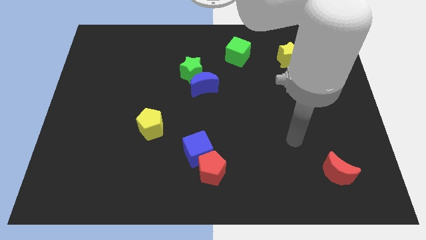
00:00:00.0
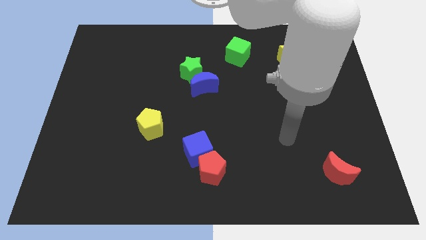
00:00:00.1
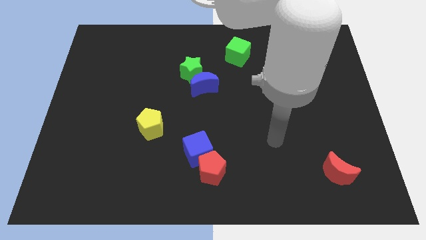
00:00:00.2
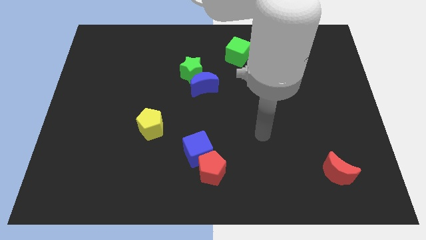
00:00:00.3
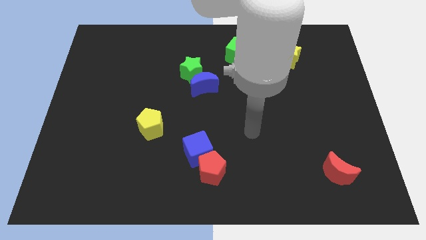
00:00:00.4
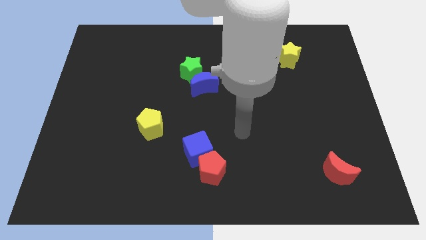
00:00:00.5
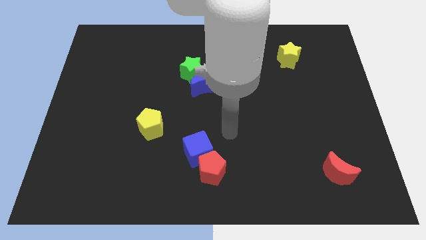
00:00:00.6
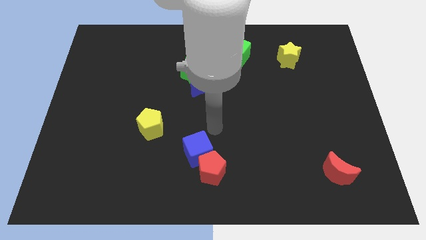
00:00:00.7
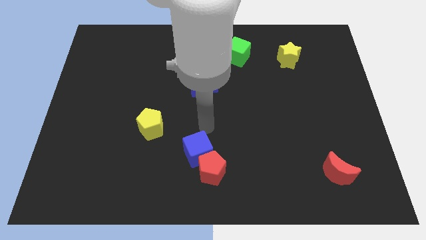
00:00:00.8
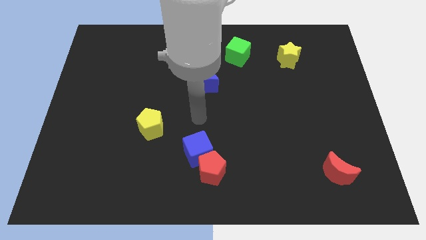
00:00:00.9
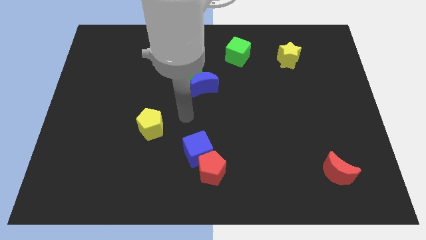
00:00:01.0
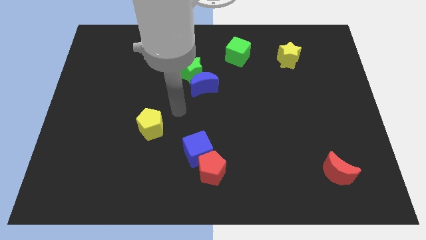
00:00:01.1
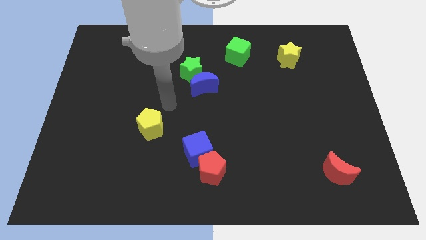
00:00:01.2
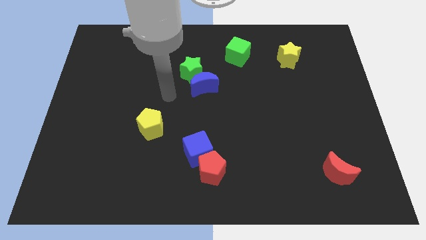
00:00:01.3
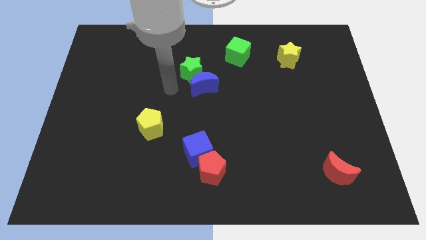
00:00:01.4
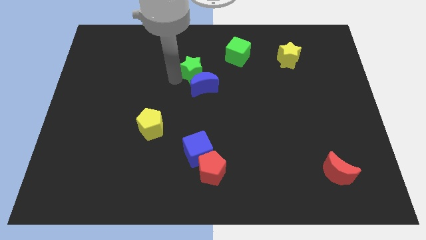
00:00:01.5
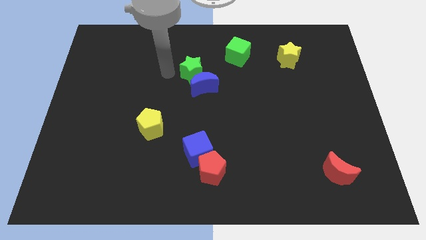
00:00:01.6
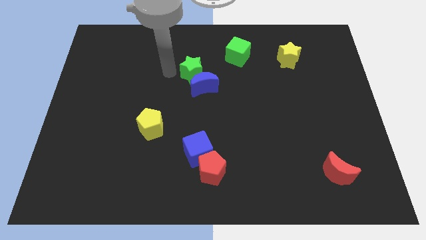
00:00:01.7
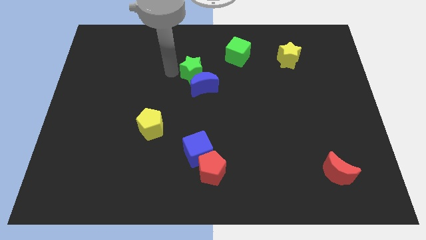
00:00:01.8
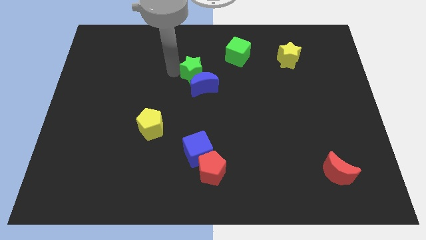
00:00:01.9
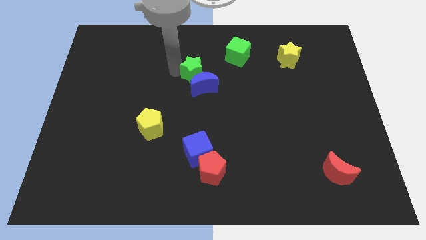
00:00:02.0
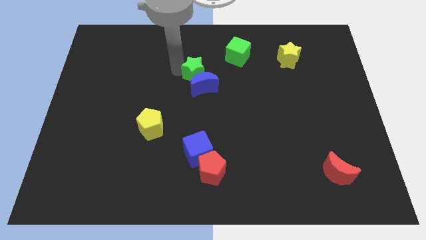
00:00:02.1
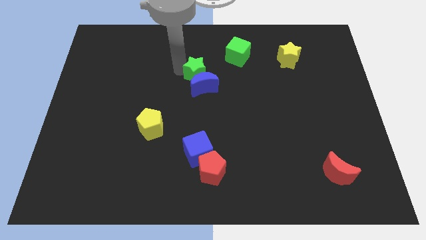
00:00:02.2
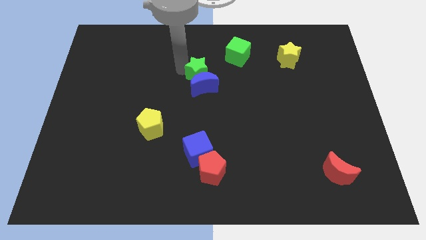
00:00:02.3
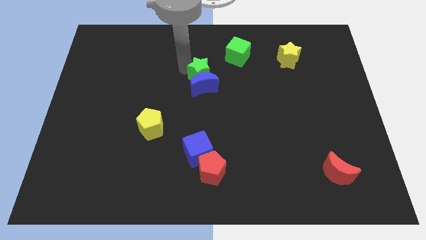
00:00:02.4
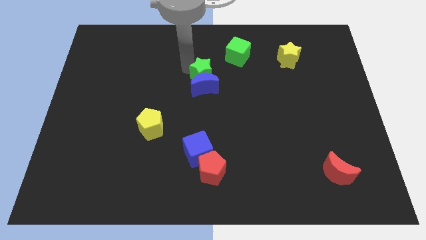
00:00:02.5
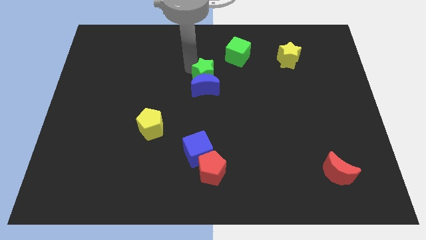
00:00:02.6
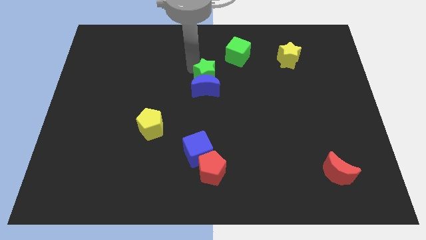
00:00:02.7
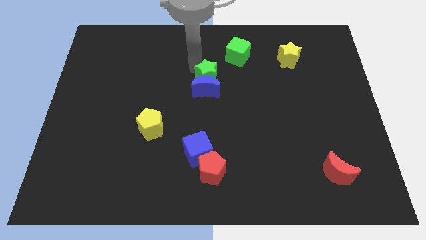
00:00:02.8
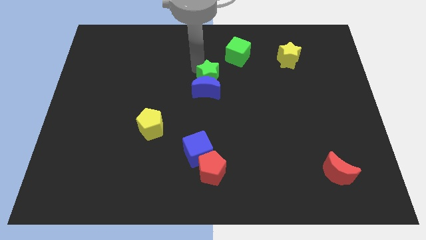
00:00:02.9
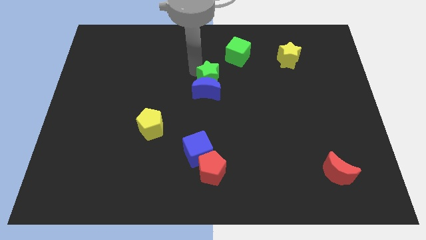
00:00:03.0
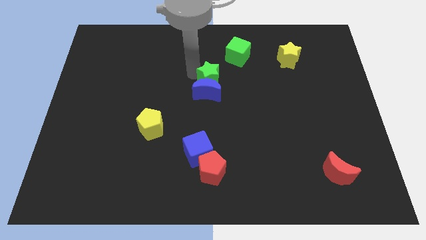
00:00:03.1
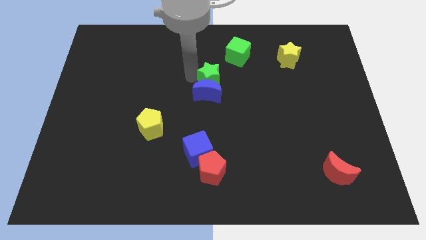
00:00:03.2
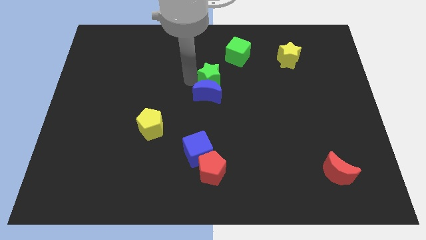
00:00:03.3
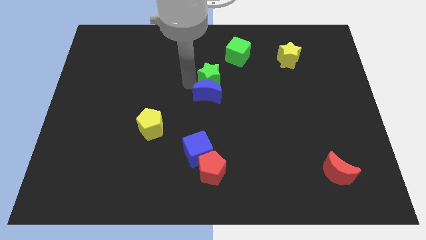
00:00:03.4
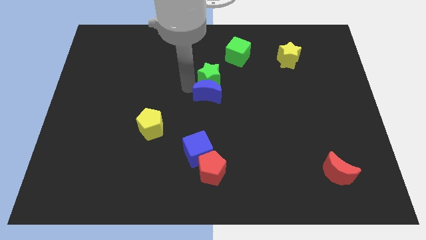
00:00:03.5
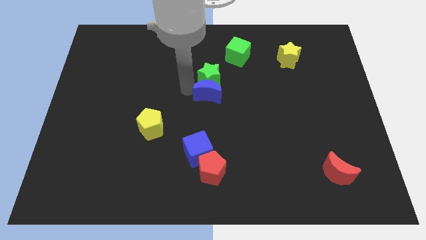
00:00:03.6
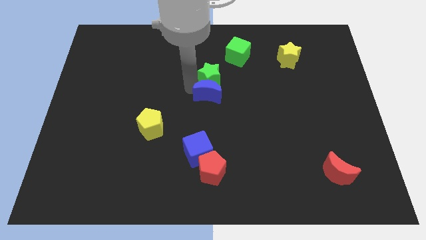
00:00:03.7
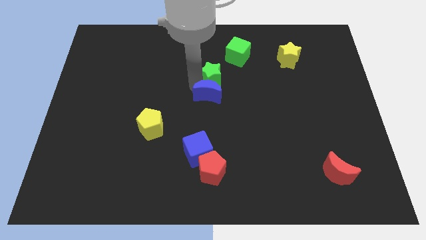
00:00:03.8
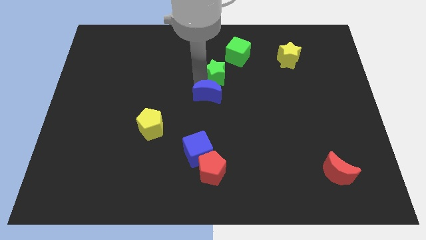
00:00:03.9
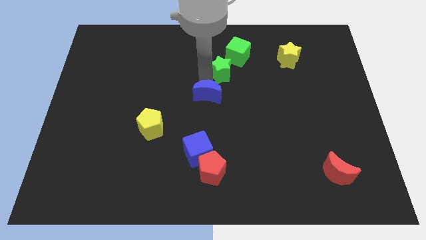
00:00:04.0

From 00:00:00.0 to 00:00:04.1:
move the green star right a bit

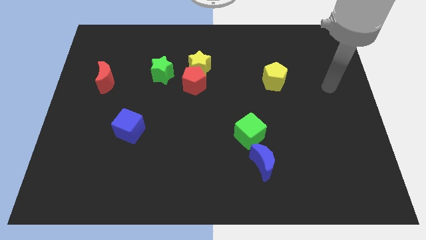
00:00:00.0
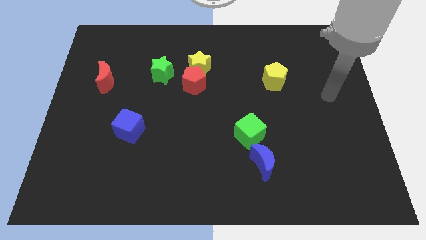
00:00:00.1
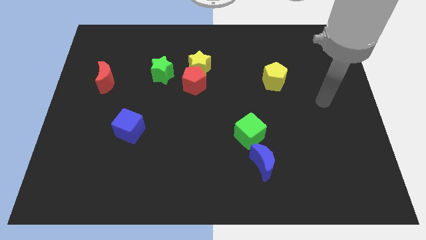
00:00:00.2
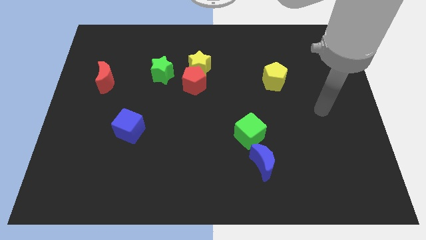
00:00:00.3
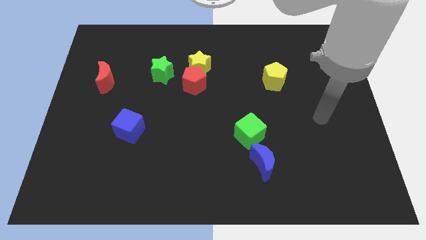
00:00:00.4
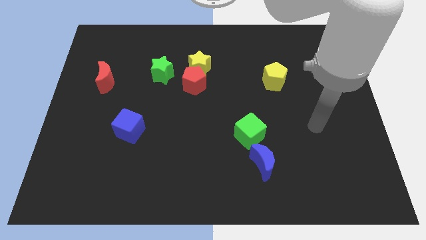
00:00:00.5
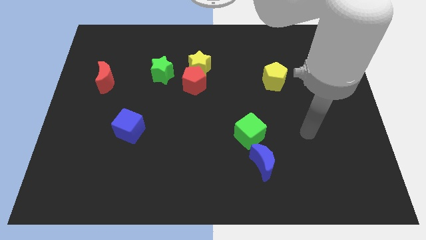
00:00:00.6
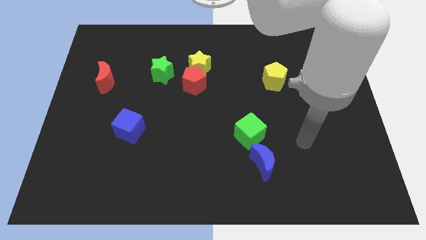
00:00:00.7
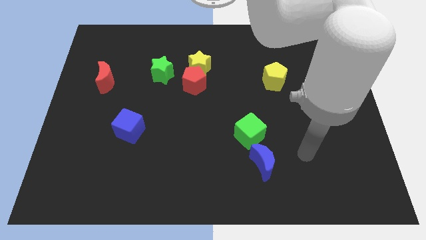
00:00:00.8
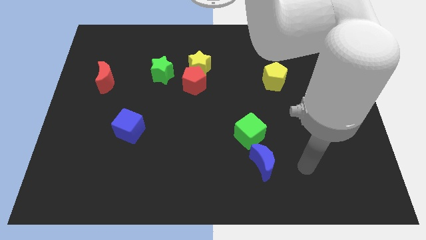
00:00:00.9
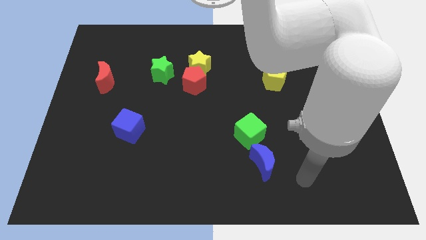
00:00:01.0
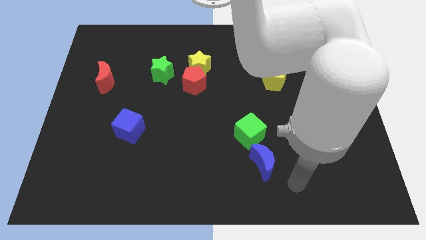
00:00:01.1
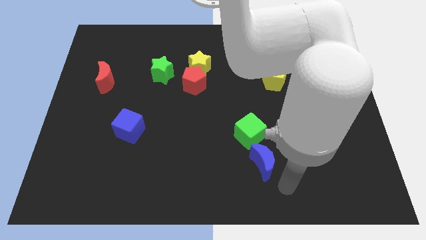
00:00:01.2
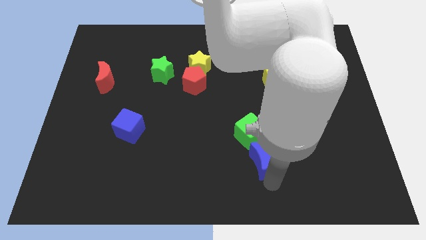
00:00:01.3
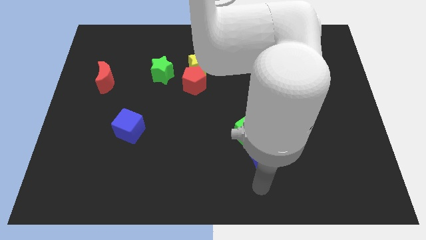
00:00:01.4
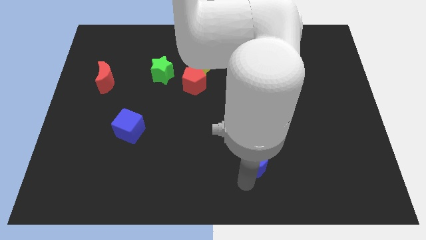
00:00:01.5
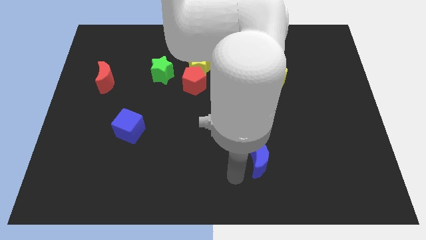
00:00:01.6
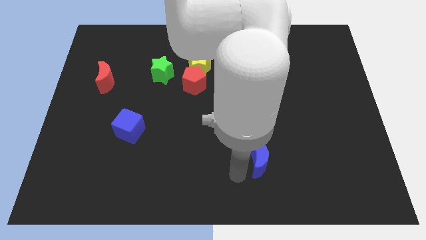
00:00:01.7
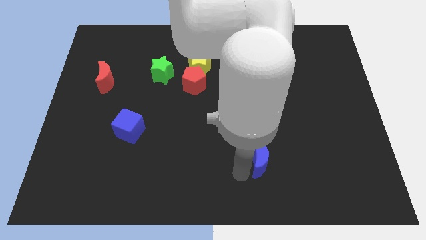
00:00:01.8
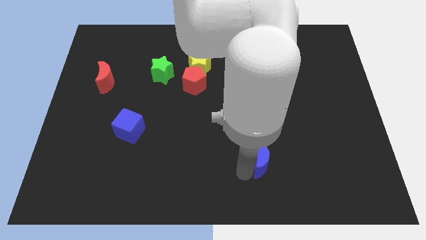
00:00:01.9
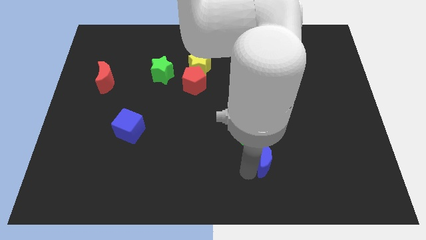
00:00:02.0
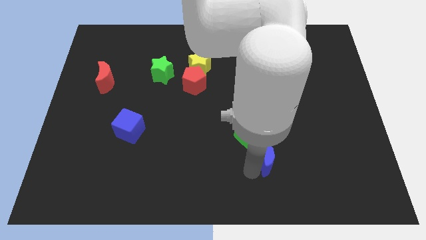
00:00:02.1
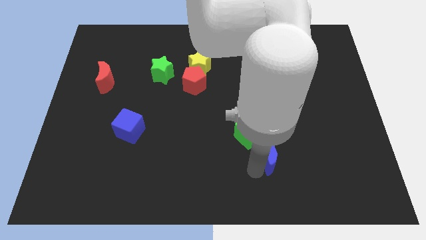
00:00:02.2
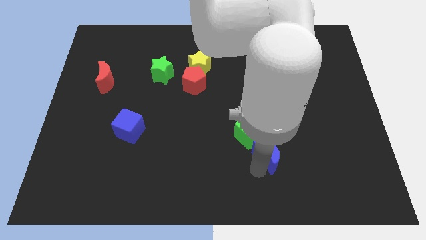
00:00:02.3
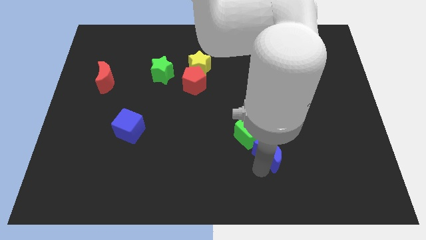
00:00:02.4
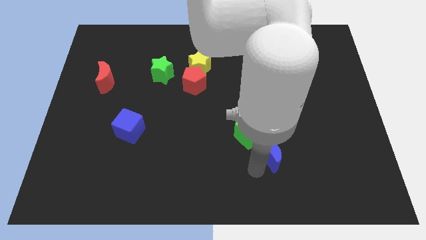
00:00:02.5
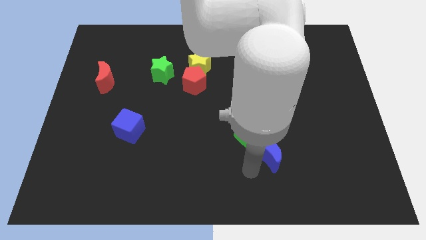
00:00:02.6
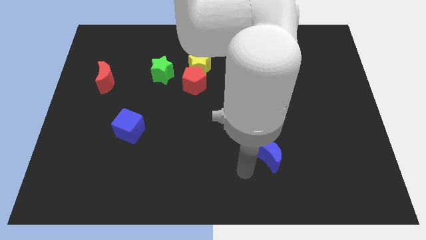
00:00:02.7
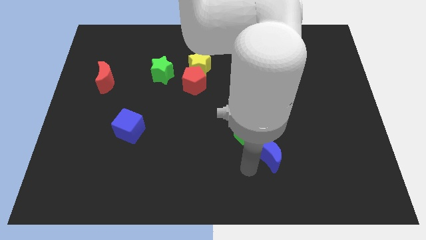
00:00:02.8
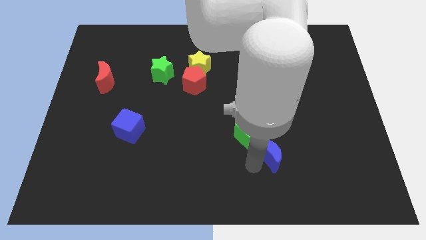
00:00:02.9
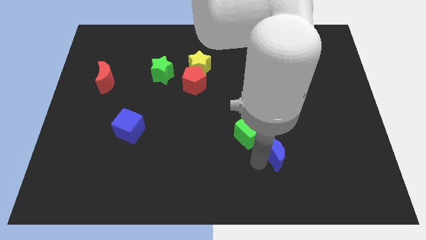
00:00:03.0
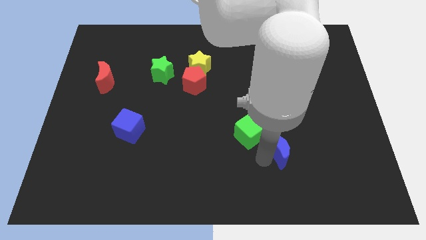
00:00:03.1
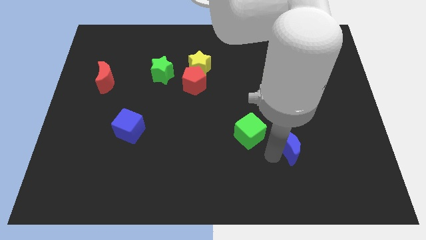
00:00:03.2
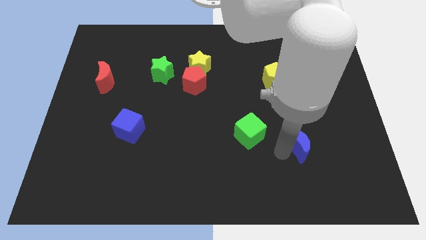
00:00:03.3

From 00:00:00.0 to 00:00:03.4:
move the blue moon up and then right slightly

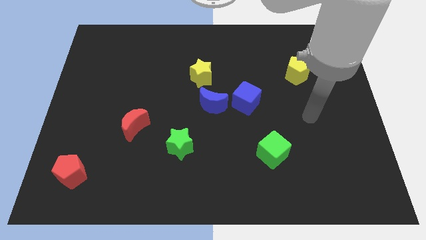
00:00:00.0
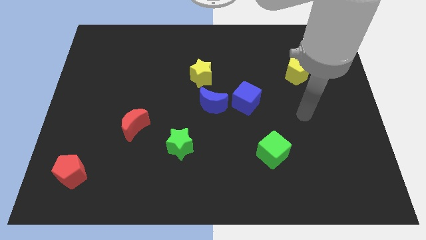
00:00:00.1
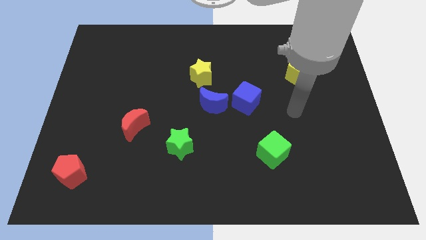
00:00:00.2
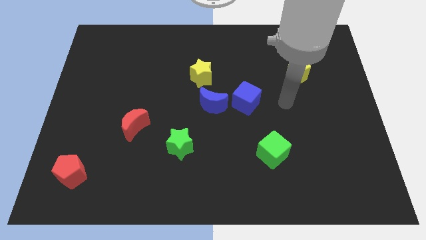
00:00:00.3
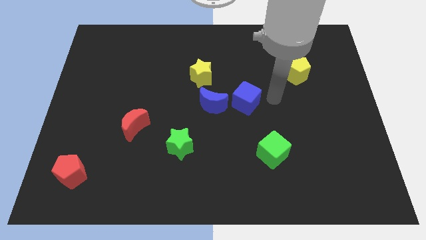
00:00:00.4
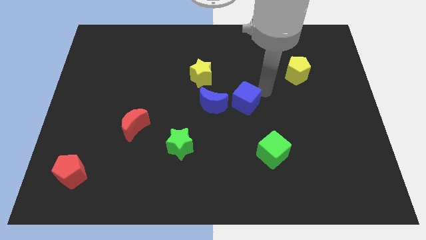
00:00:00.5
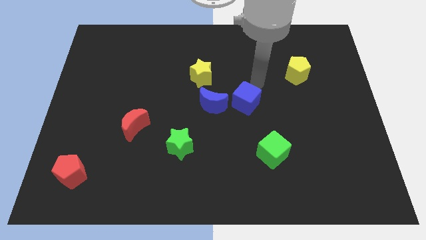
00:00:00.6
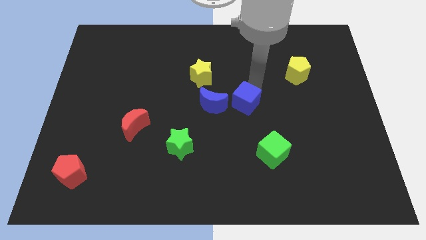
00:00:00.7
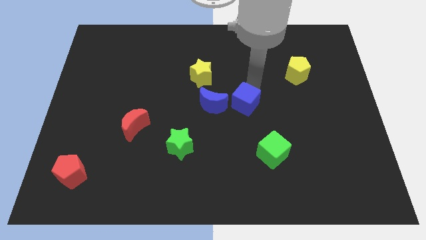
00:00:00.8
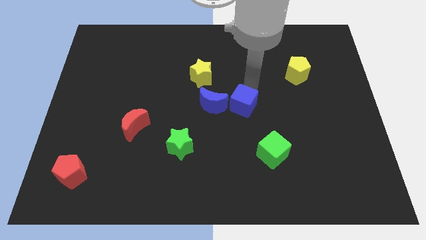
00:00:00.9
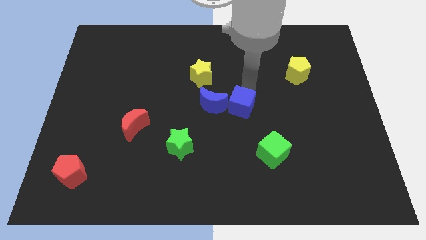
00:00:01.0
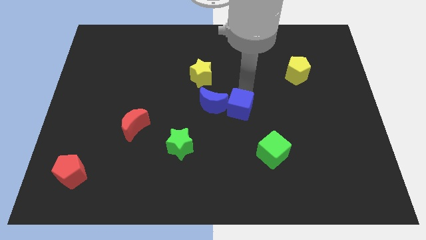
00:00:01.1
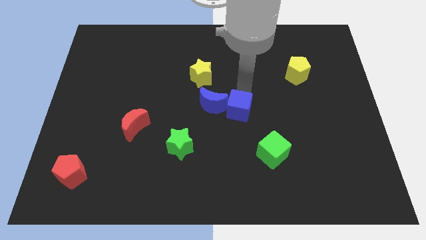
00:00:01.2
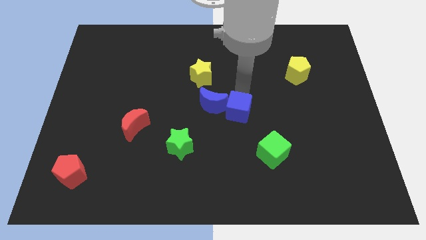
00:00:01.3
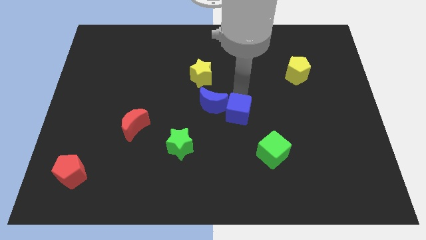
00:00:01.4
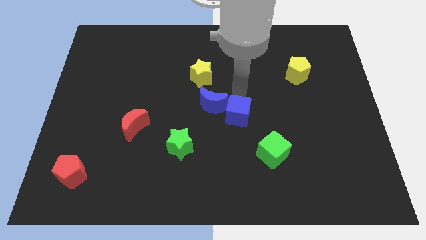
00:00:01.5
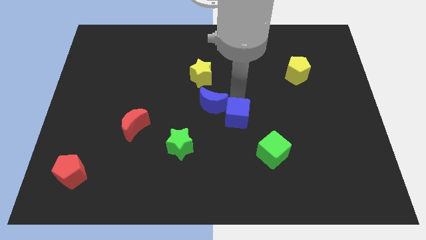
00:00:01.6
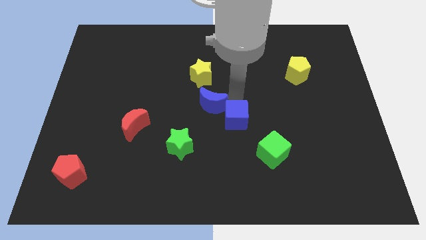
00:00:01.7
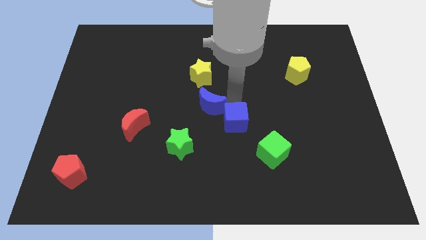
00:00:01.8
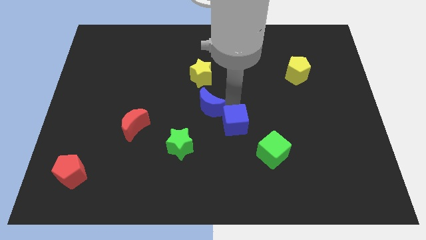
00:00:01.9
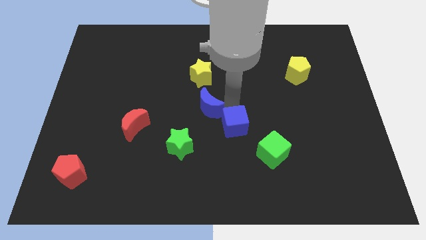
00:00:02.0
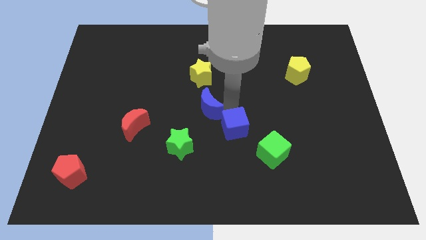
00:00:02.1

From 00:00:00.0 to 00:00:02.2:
slide the blue cube a little bit down
